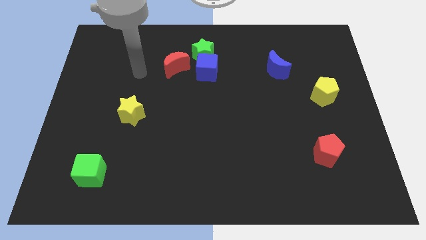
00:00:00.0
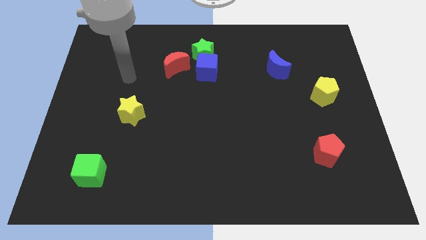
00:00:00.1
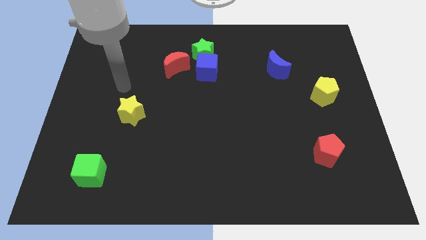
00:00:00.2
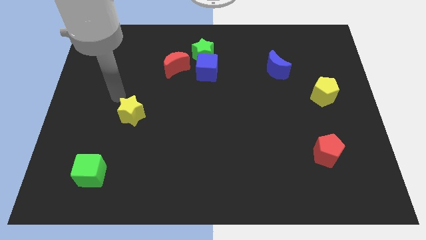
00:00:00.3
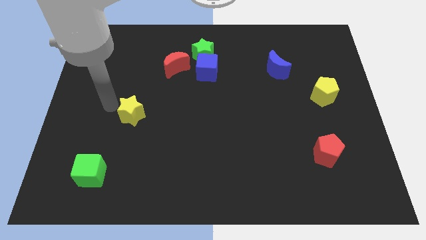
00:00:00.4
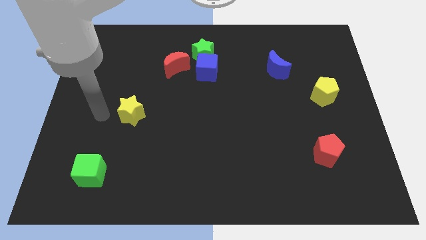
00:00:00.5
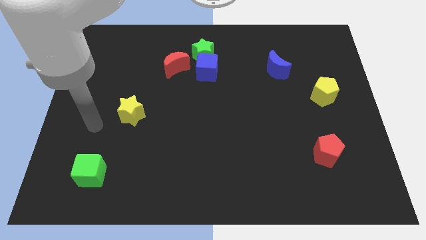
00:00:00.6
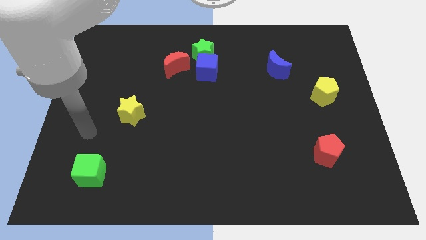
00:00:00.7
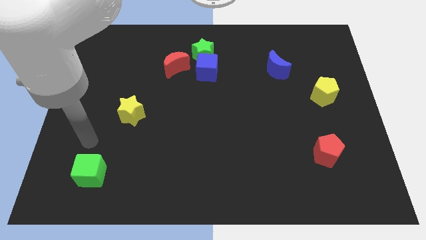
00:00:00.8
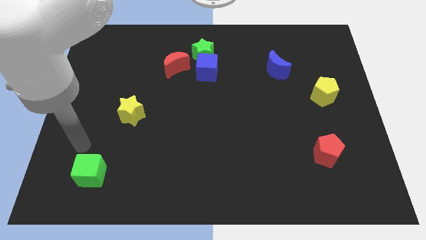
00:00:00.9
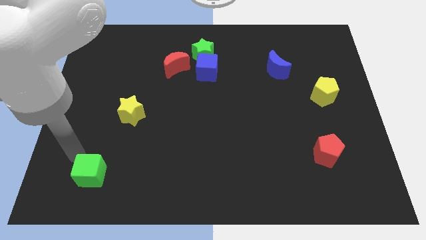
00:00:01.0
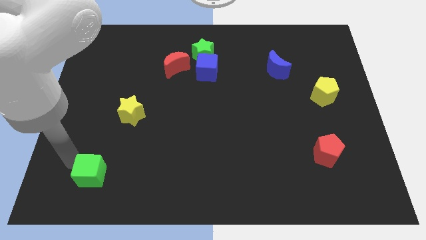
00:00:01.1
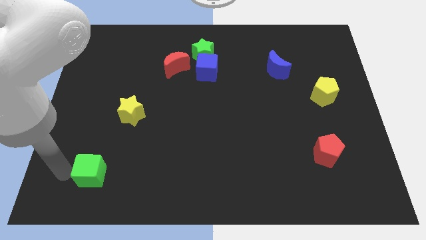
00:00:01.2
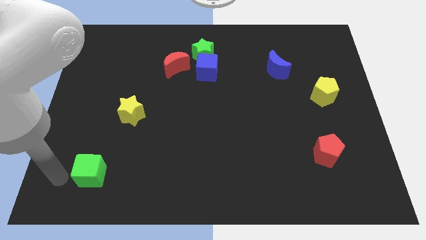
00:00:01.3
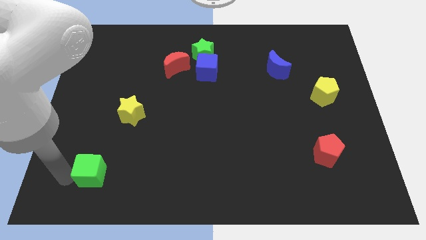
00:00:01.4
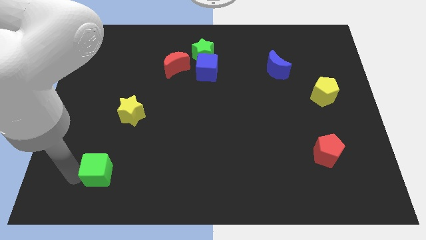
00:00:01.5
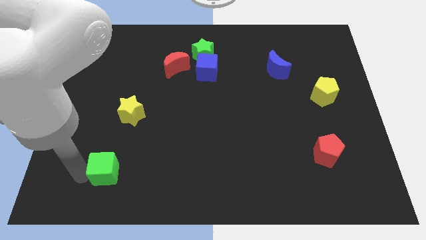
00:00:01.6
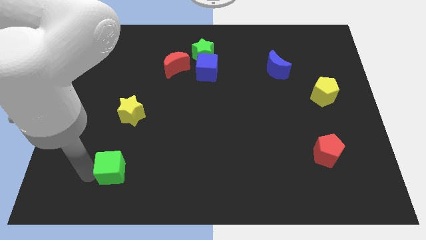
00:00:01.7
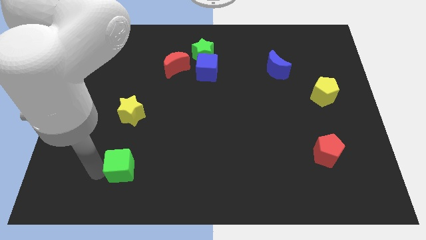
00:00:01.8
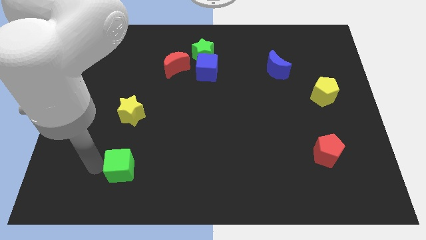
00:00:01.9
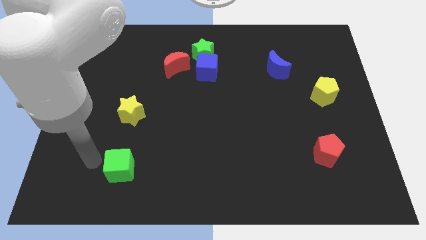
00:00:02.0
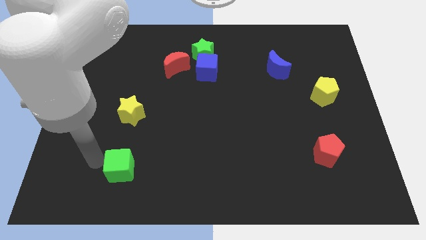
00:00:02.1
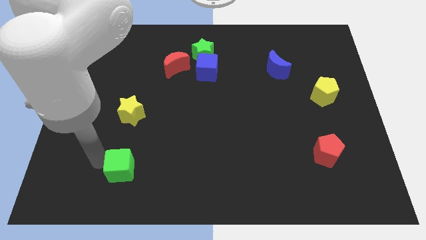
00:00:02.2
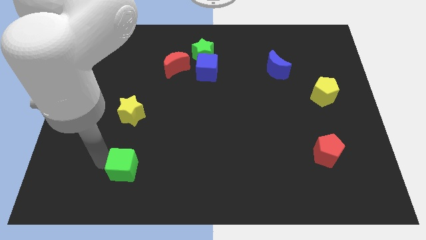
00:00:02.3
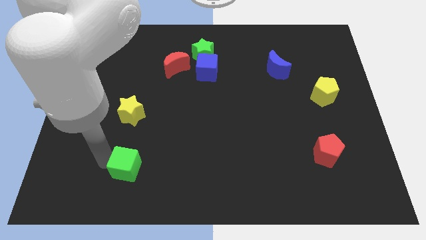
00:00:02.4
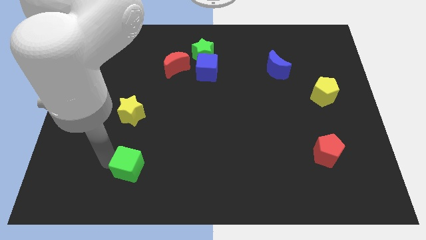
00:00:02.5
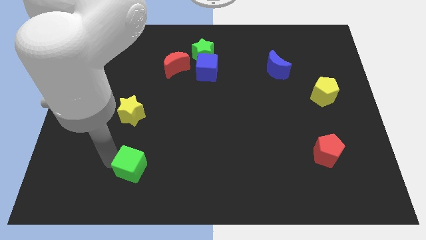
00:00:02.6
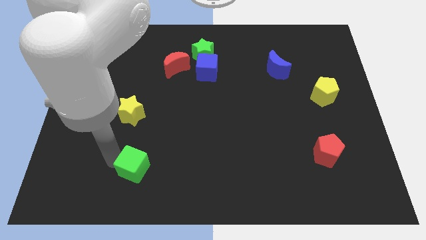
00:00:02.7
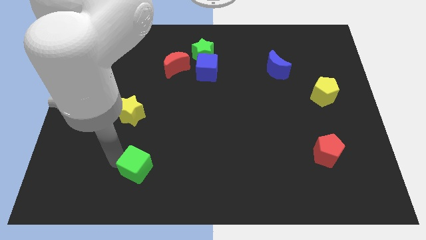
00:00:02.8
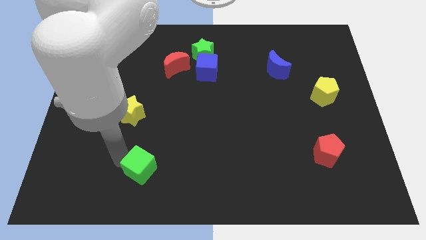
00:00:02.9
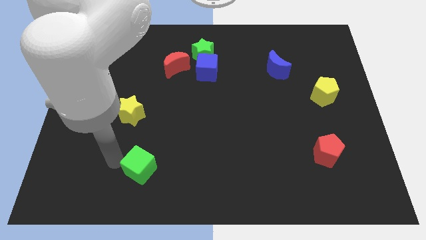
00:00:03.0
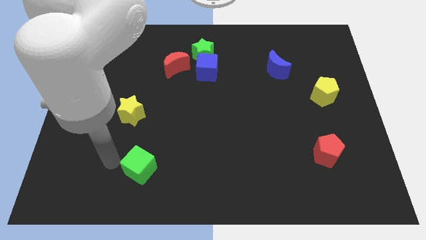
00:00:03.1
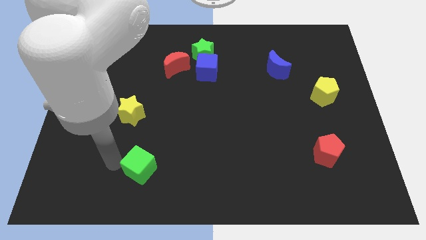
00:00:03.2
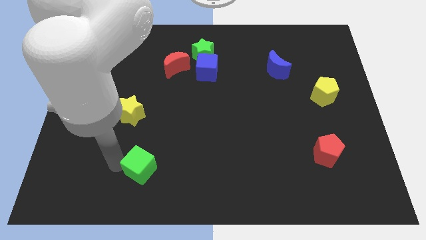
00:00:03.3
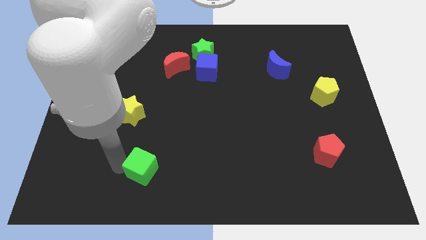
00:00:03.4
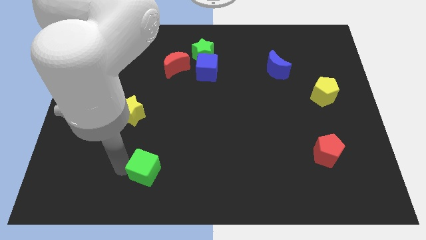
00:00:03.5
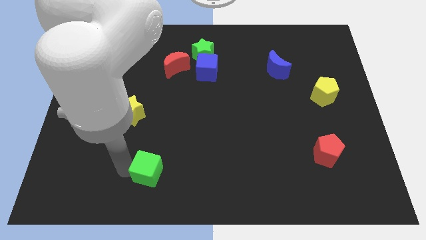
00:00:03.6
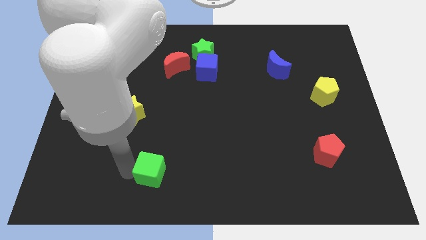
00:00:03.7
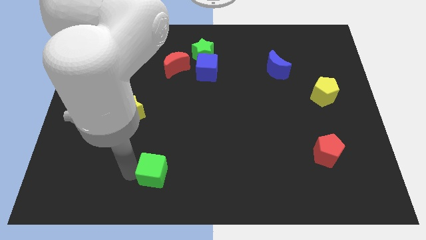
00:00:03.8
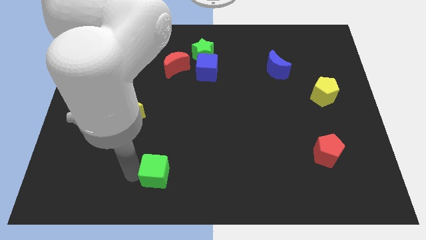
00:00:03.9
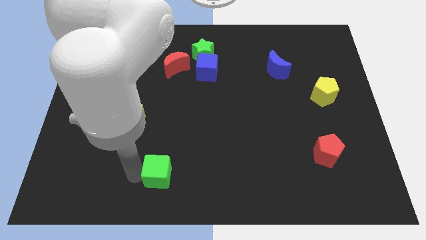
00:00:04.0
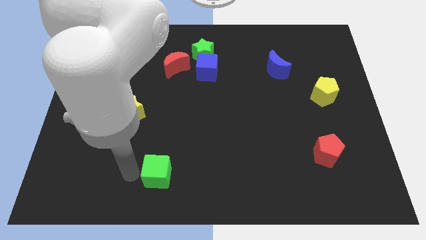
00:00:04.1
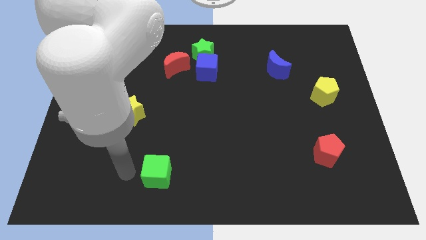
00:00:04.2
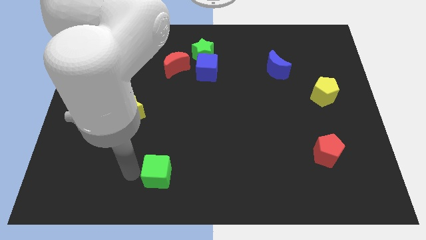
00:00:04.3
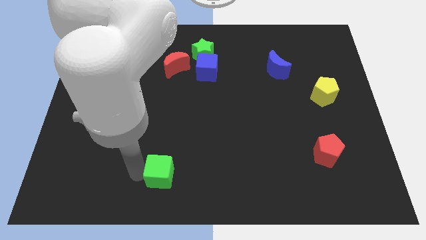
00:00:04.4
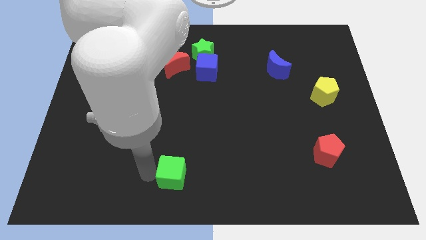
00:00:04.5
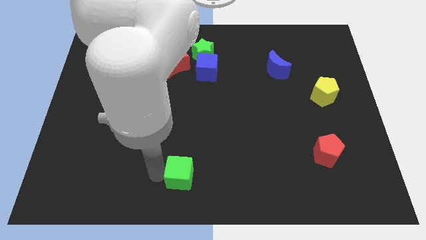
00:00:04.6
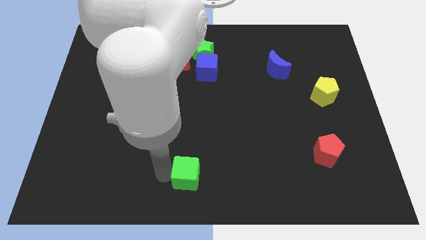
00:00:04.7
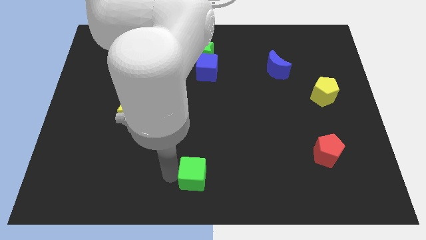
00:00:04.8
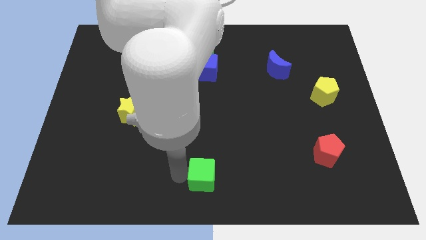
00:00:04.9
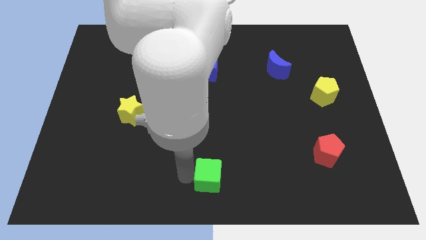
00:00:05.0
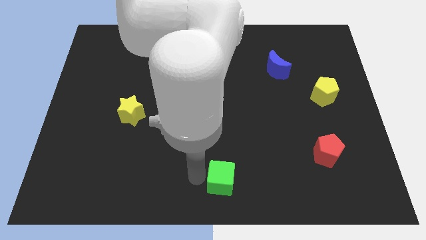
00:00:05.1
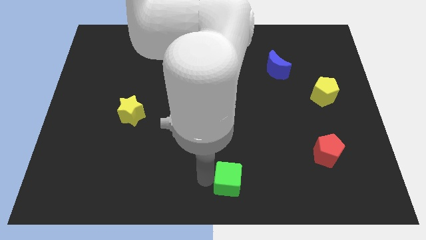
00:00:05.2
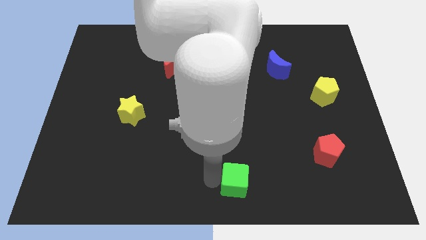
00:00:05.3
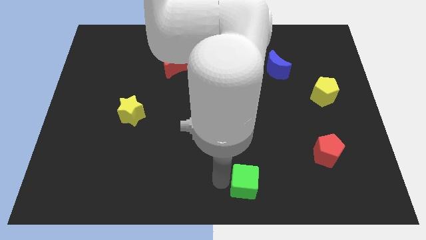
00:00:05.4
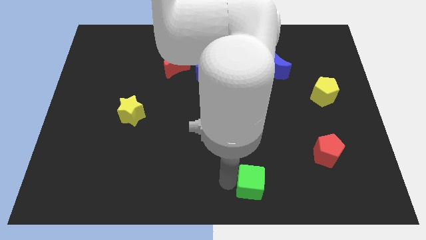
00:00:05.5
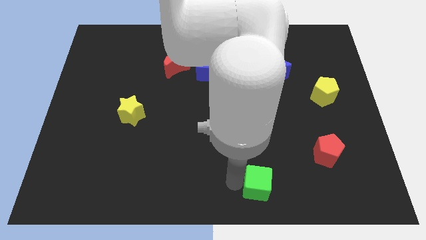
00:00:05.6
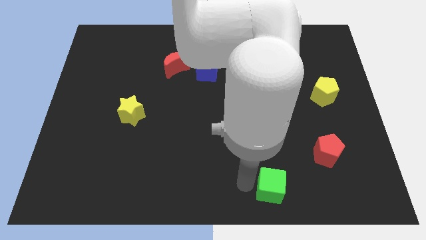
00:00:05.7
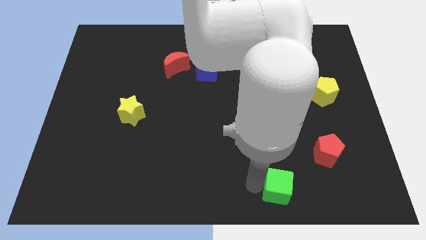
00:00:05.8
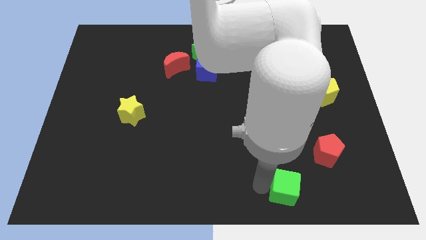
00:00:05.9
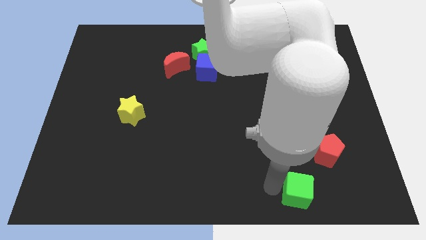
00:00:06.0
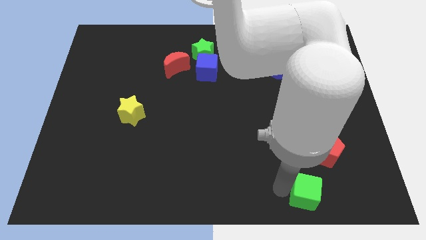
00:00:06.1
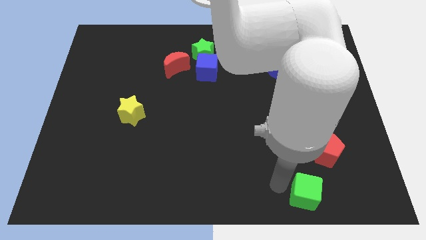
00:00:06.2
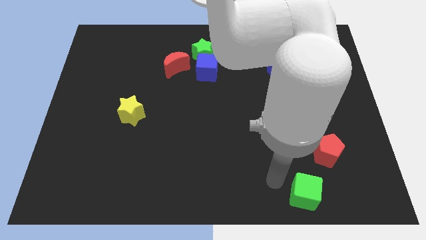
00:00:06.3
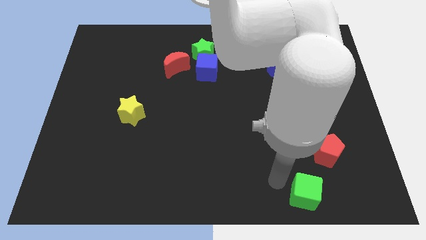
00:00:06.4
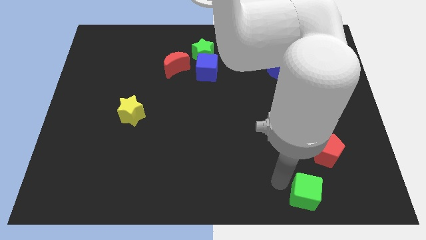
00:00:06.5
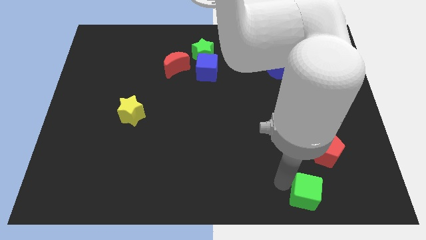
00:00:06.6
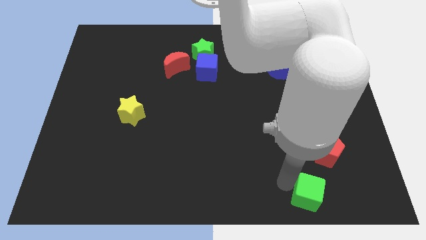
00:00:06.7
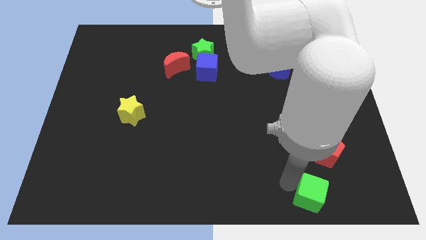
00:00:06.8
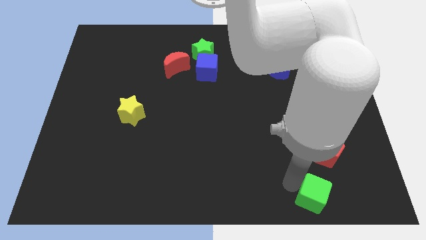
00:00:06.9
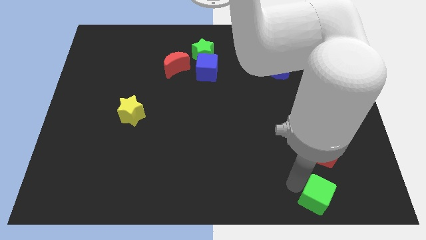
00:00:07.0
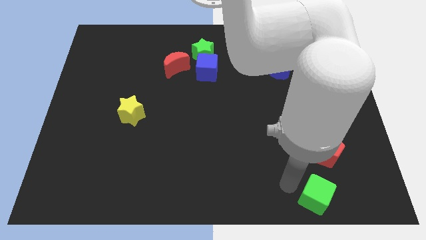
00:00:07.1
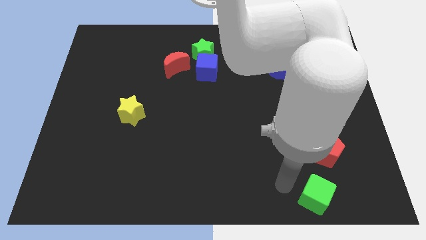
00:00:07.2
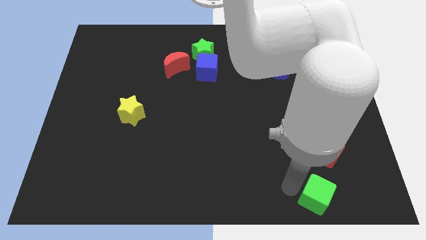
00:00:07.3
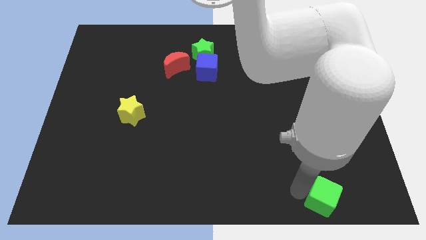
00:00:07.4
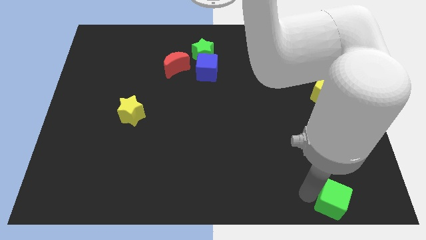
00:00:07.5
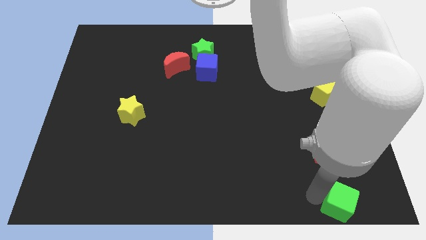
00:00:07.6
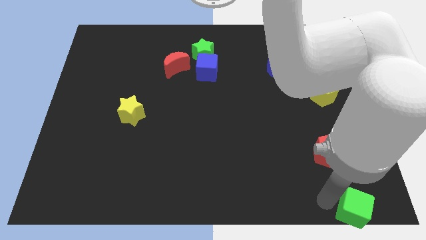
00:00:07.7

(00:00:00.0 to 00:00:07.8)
put the green cube to the bottom right corner
